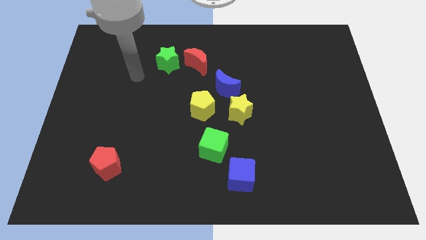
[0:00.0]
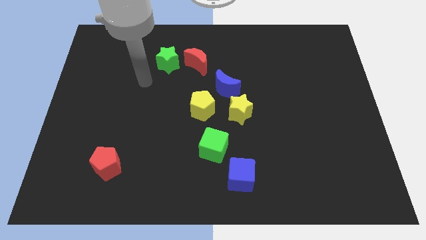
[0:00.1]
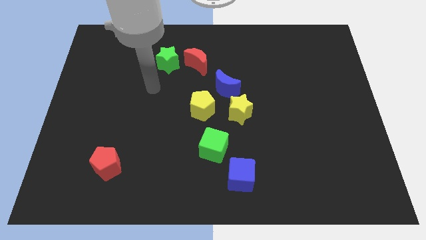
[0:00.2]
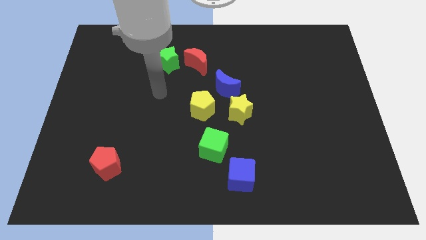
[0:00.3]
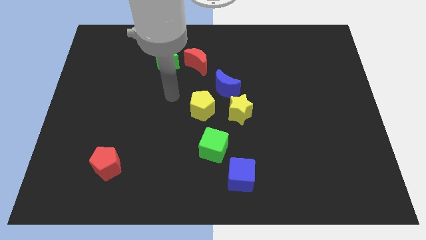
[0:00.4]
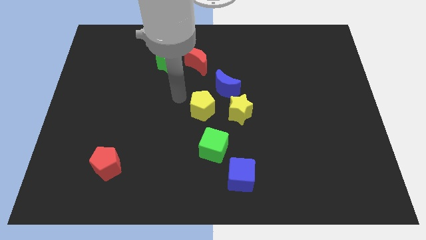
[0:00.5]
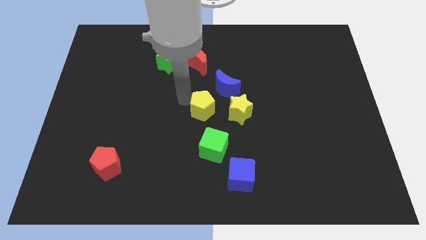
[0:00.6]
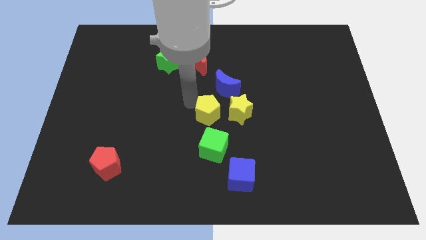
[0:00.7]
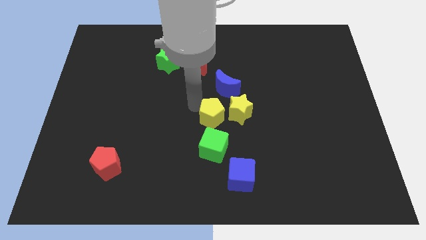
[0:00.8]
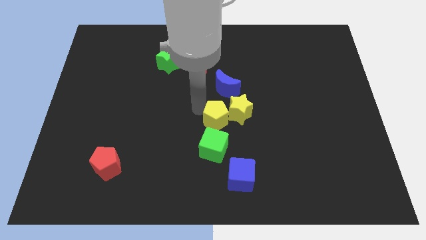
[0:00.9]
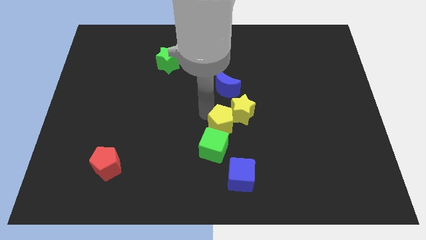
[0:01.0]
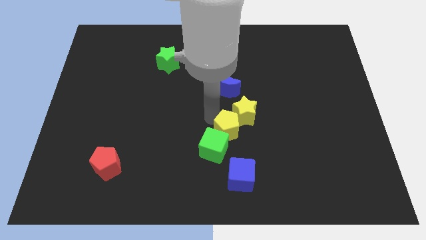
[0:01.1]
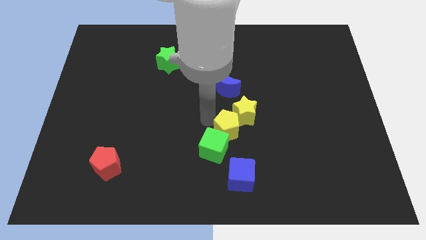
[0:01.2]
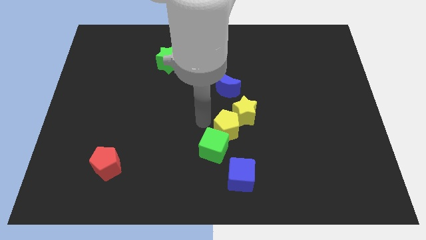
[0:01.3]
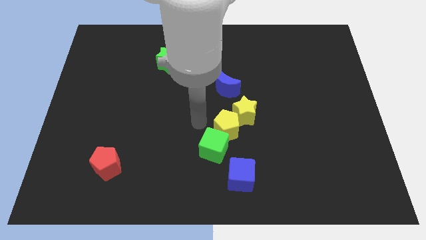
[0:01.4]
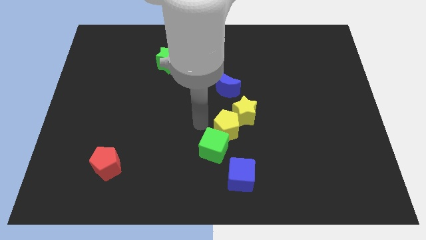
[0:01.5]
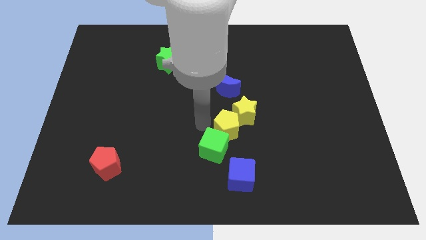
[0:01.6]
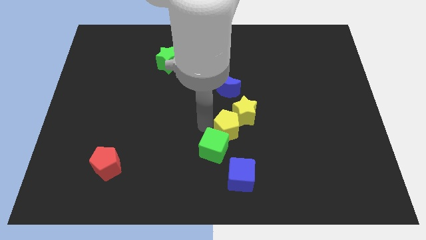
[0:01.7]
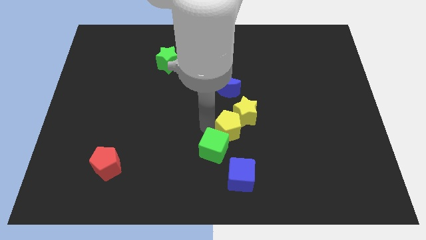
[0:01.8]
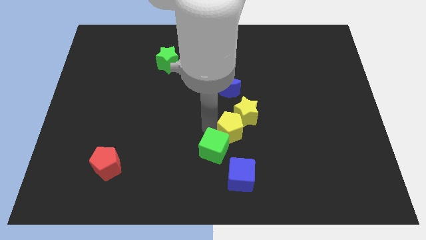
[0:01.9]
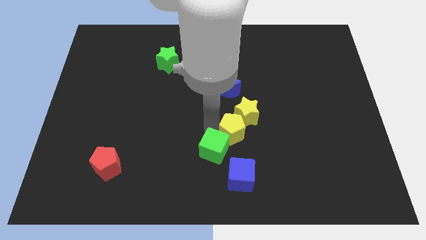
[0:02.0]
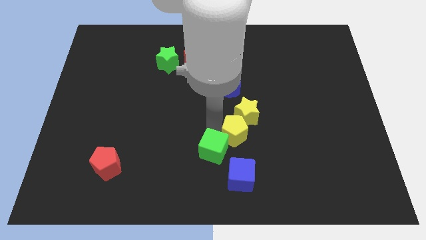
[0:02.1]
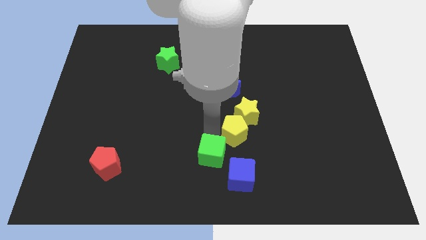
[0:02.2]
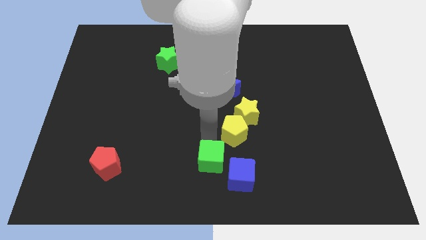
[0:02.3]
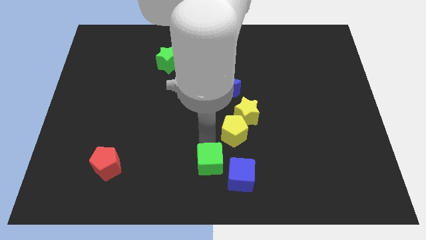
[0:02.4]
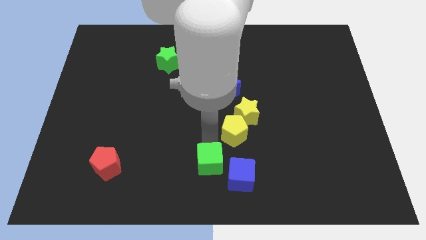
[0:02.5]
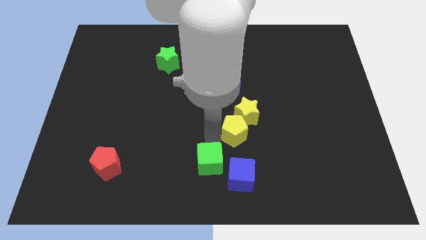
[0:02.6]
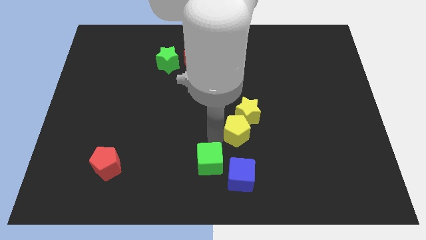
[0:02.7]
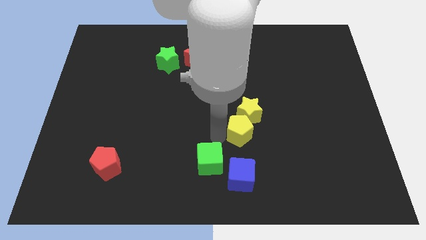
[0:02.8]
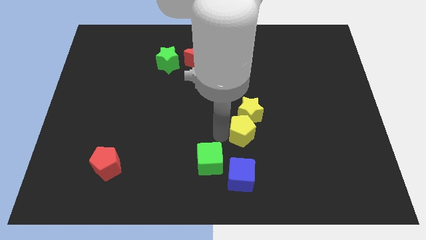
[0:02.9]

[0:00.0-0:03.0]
move the yellow pentagon to the right a little bit

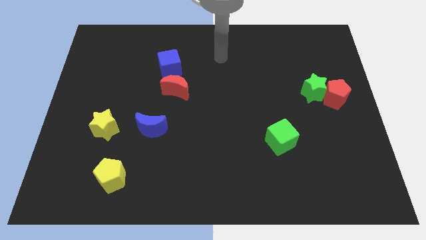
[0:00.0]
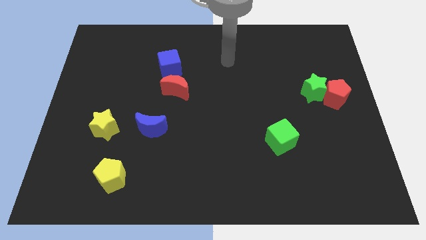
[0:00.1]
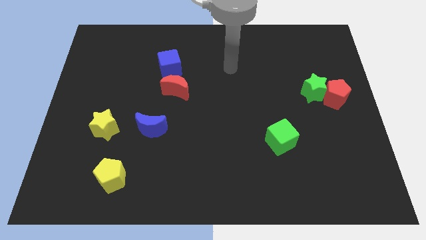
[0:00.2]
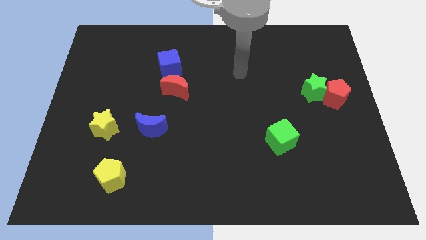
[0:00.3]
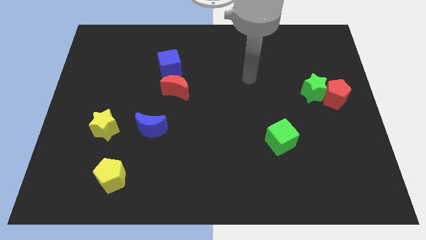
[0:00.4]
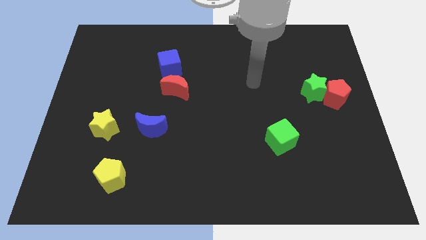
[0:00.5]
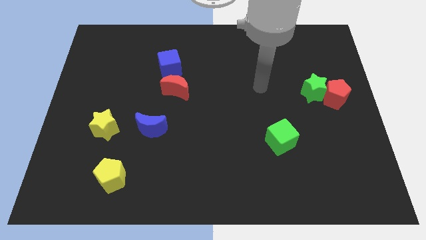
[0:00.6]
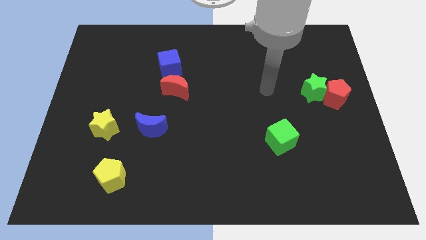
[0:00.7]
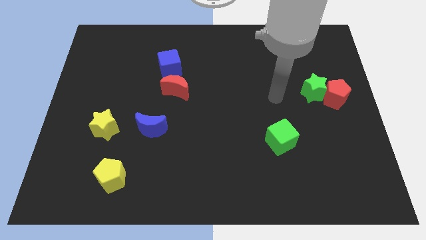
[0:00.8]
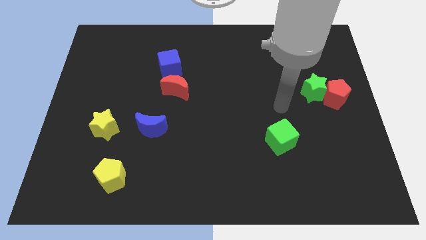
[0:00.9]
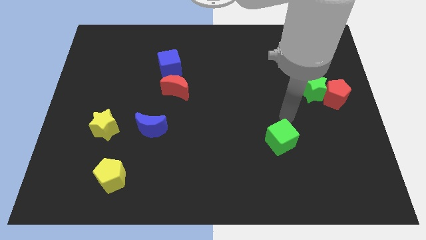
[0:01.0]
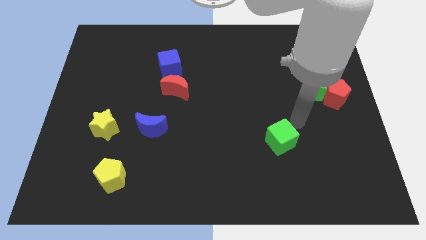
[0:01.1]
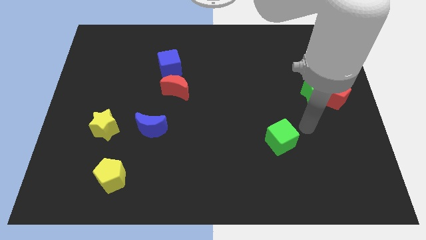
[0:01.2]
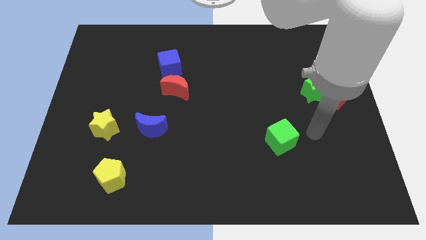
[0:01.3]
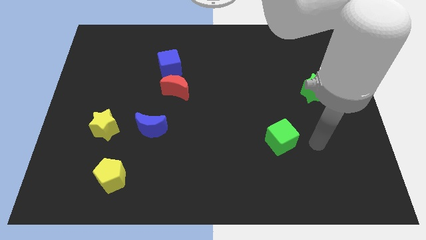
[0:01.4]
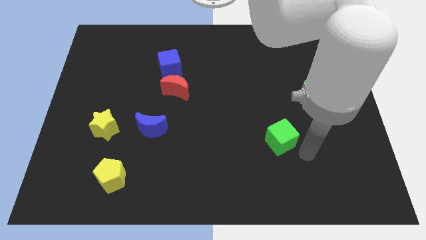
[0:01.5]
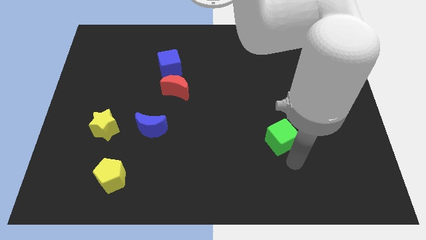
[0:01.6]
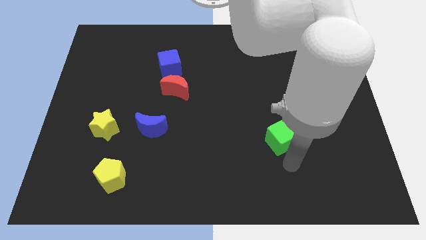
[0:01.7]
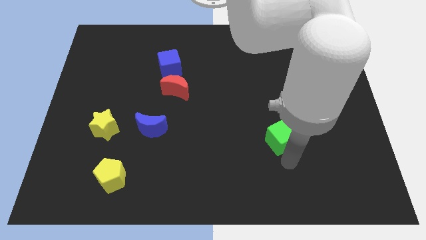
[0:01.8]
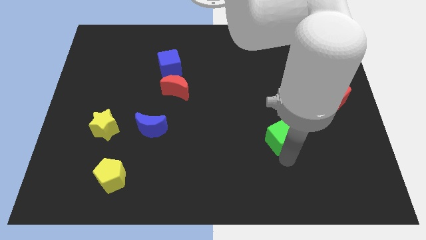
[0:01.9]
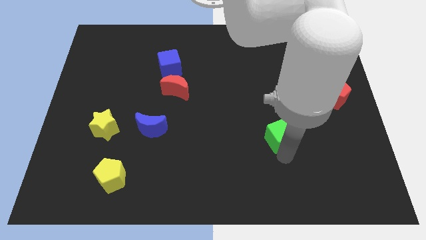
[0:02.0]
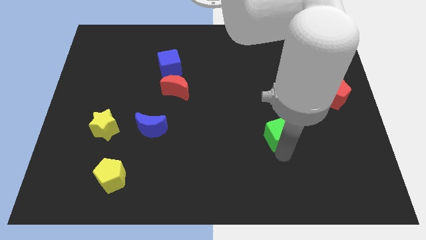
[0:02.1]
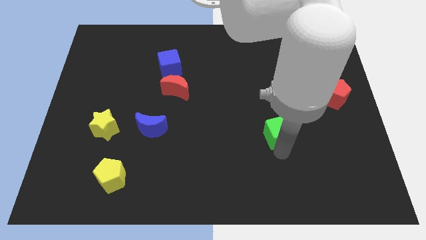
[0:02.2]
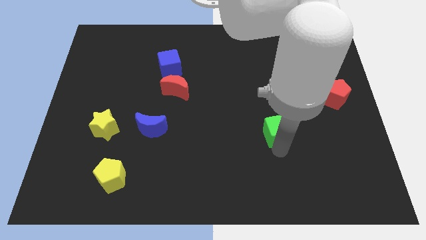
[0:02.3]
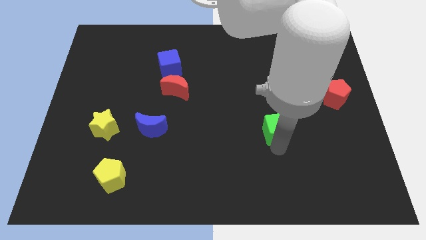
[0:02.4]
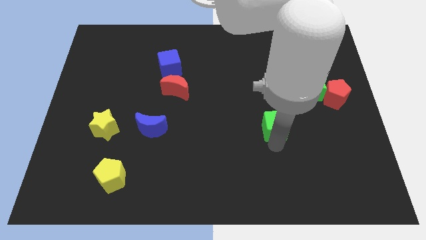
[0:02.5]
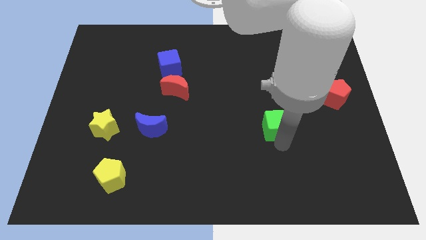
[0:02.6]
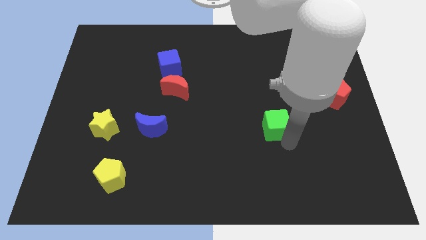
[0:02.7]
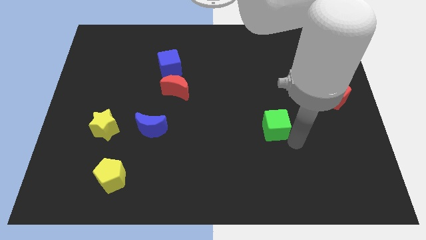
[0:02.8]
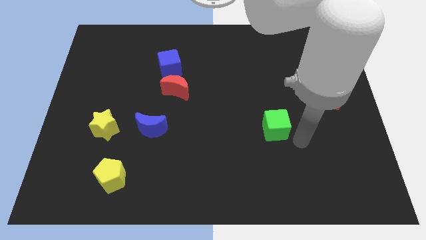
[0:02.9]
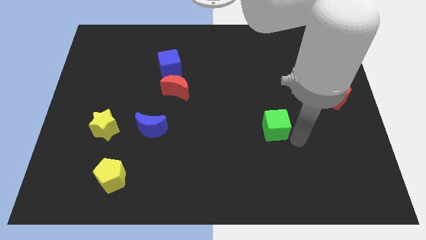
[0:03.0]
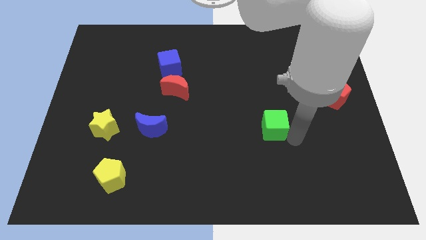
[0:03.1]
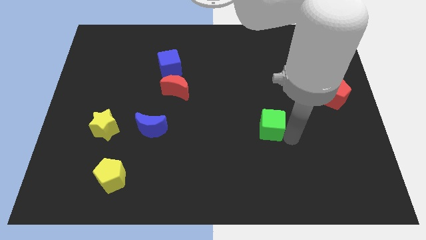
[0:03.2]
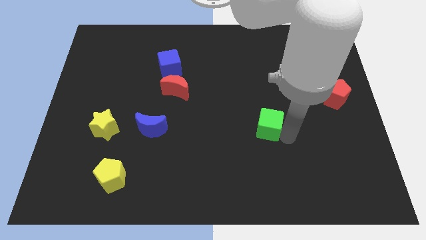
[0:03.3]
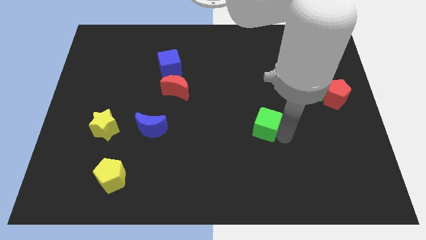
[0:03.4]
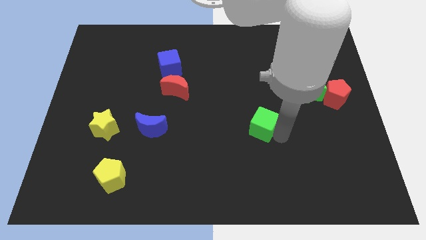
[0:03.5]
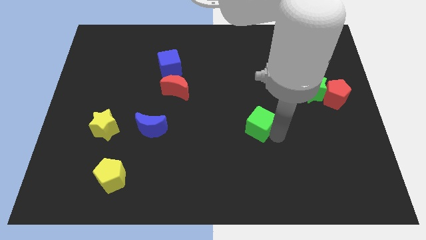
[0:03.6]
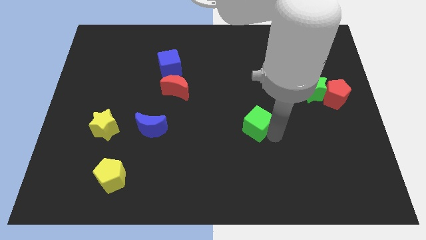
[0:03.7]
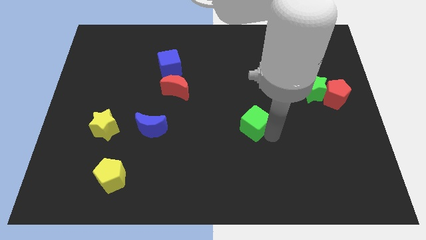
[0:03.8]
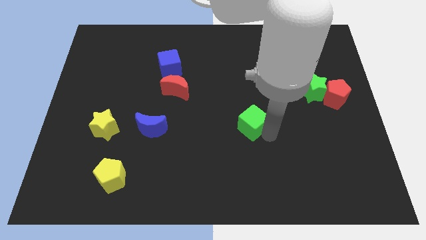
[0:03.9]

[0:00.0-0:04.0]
push the green cube a bit diagonally up and to the left

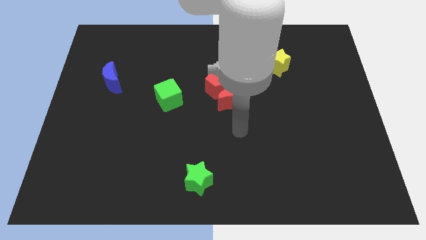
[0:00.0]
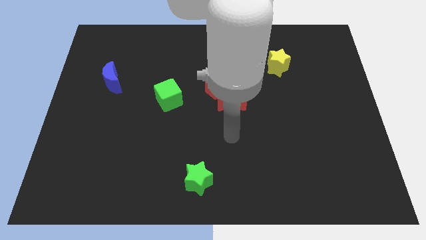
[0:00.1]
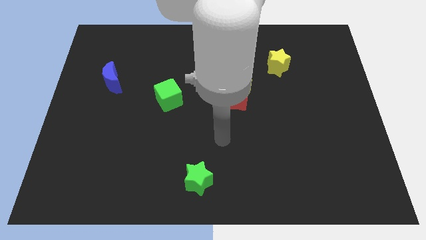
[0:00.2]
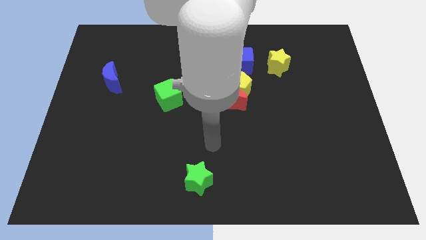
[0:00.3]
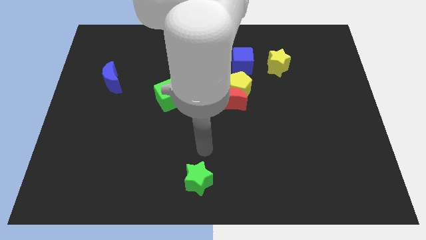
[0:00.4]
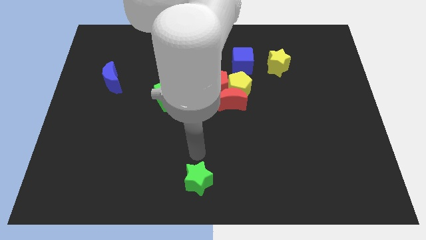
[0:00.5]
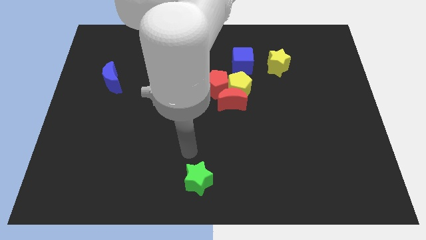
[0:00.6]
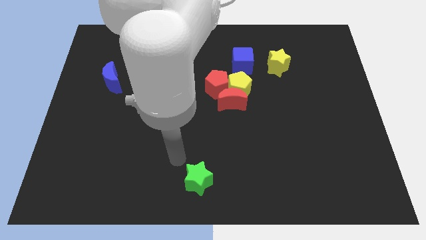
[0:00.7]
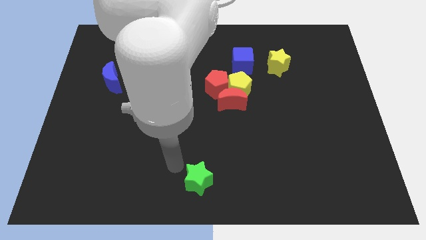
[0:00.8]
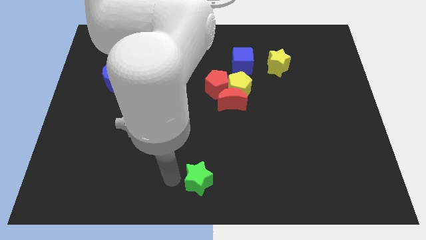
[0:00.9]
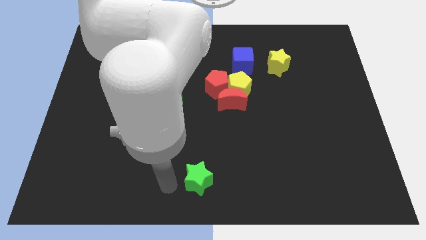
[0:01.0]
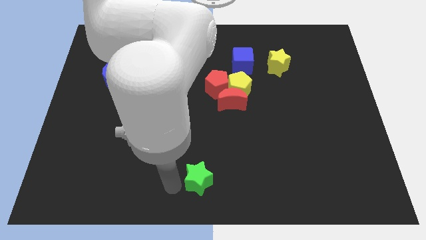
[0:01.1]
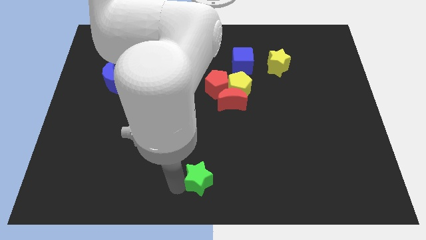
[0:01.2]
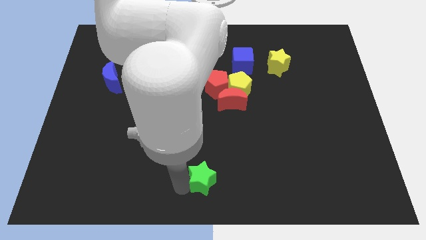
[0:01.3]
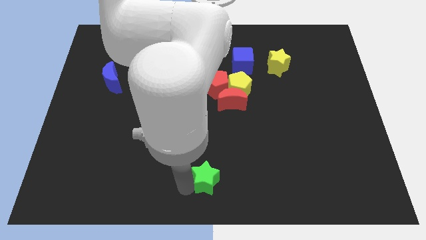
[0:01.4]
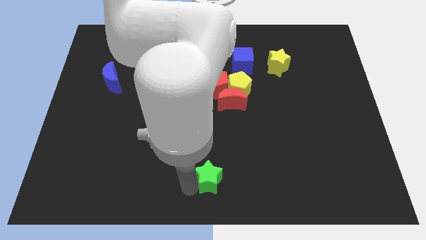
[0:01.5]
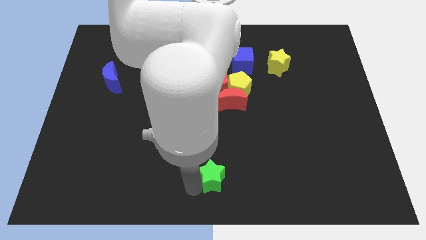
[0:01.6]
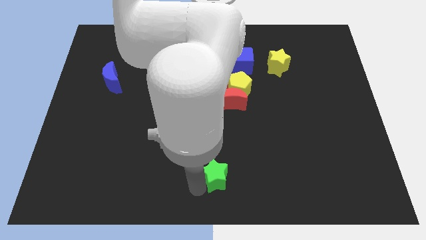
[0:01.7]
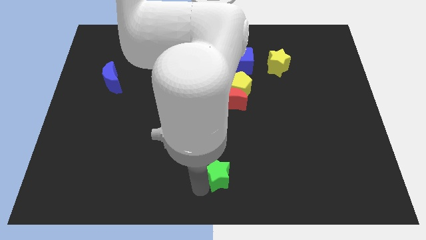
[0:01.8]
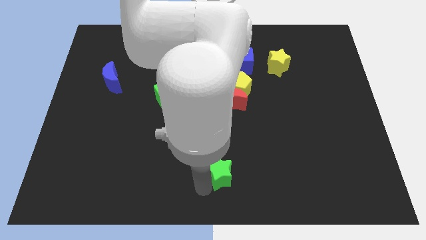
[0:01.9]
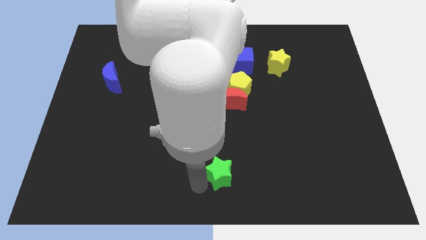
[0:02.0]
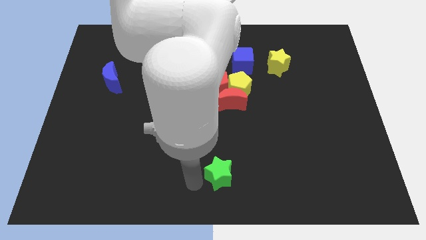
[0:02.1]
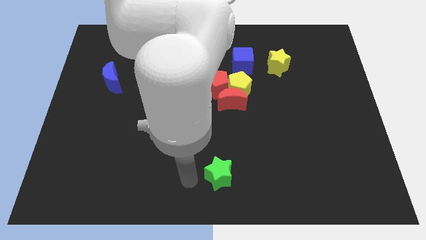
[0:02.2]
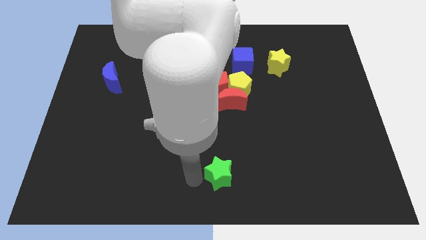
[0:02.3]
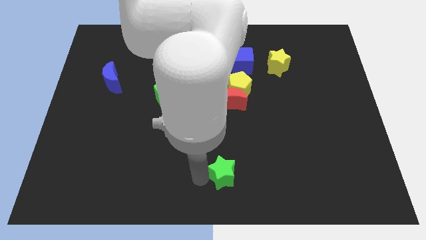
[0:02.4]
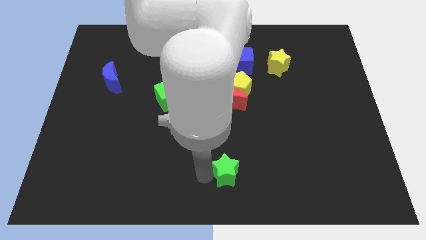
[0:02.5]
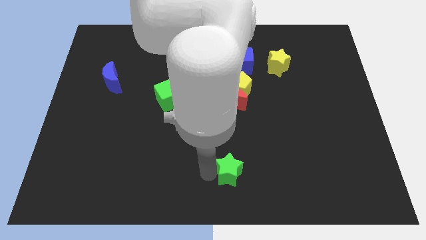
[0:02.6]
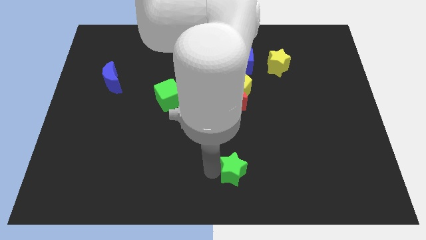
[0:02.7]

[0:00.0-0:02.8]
slightly slide the green star right
